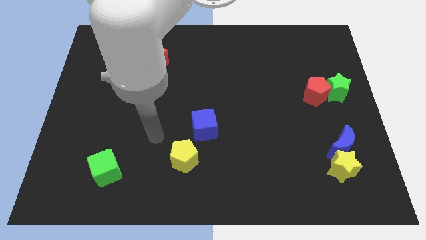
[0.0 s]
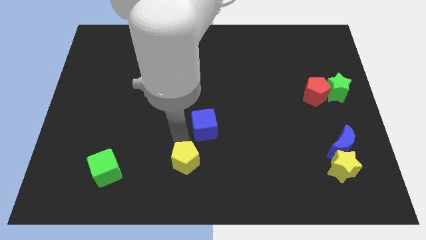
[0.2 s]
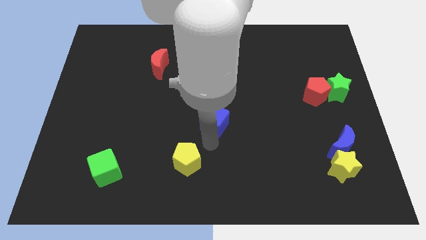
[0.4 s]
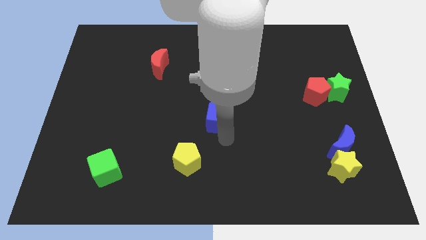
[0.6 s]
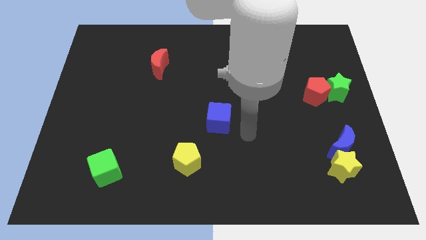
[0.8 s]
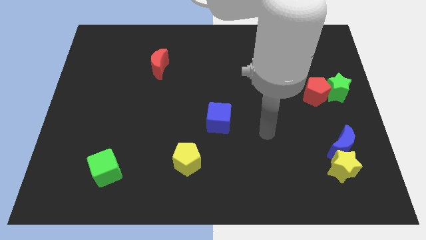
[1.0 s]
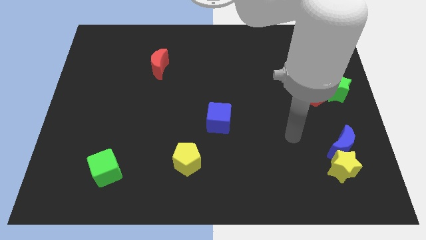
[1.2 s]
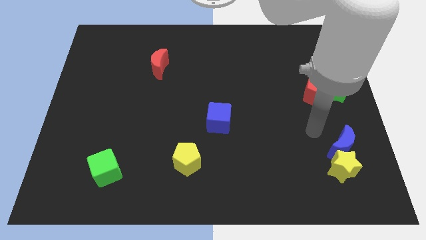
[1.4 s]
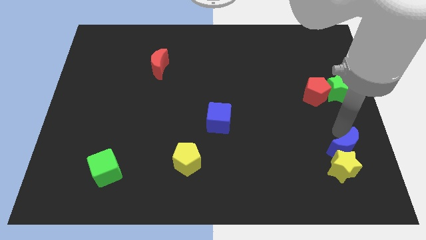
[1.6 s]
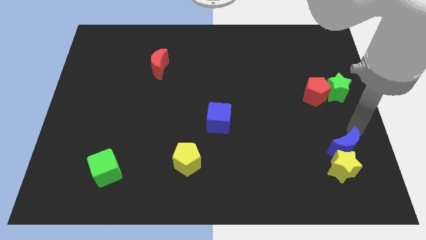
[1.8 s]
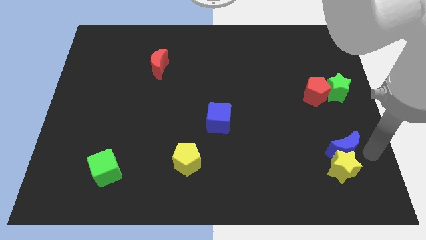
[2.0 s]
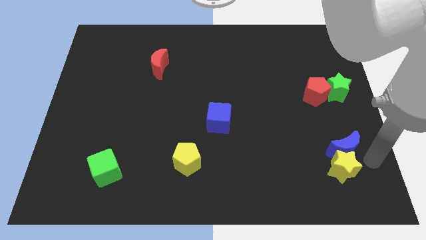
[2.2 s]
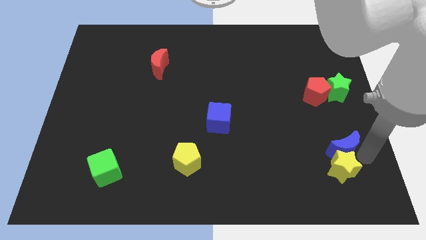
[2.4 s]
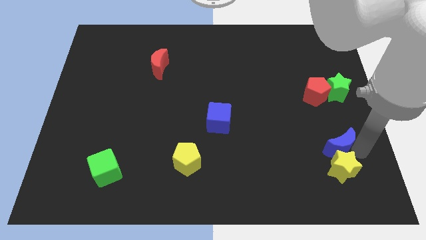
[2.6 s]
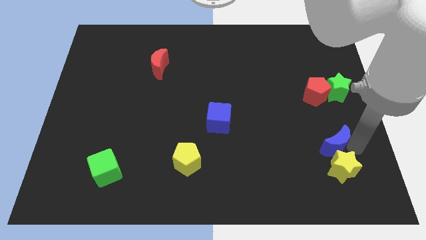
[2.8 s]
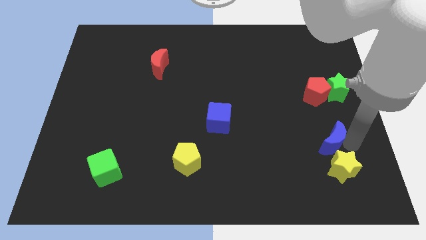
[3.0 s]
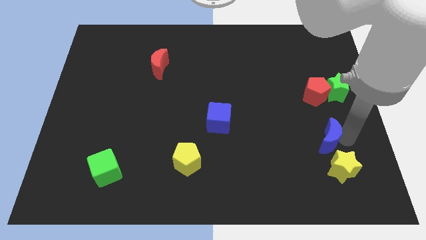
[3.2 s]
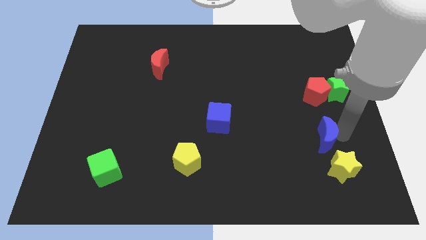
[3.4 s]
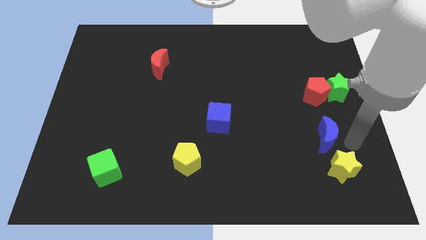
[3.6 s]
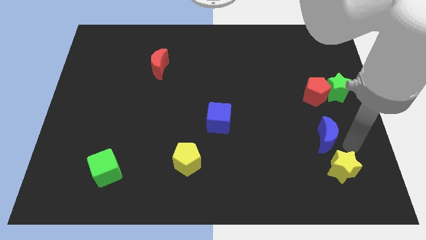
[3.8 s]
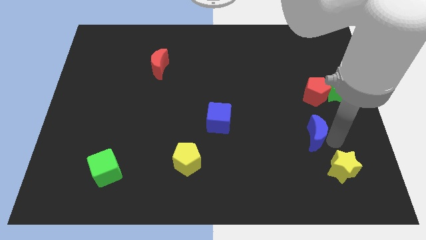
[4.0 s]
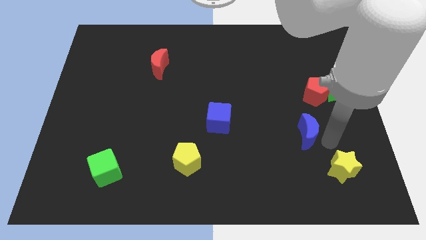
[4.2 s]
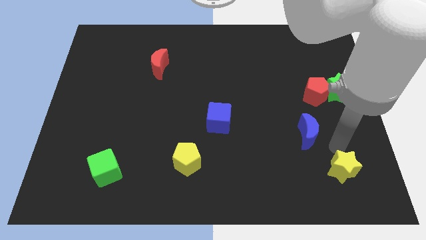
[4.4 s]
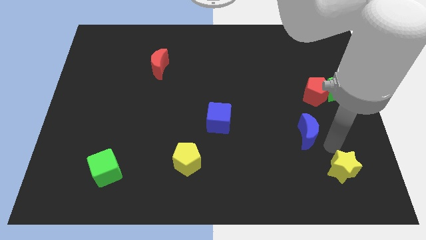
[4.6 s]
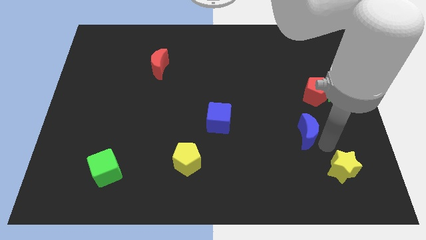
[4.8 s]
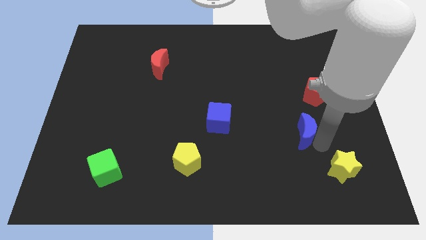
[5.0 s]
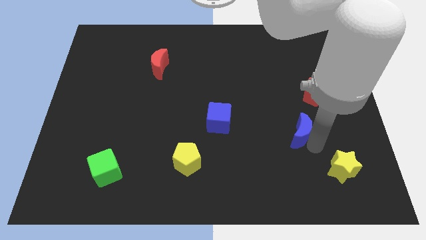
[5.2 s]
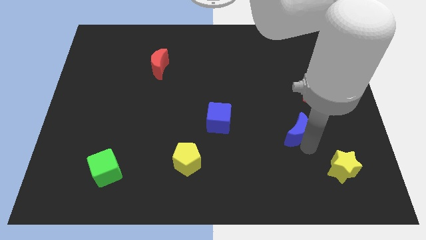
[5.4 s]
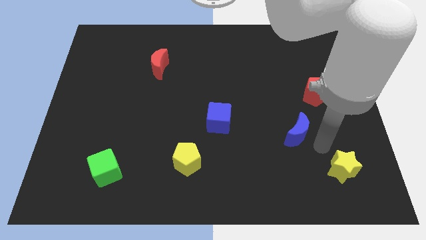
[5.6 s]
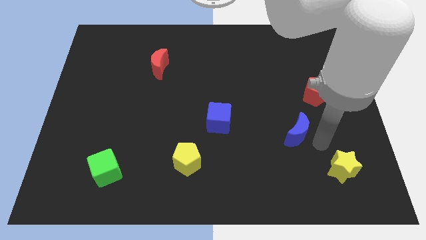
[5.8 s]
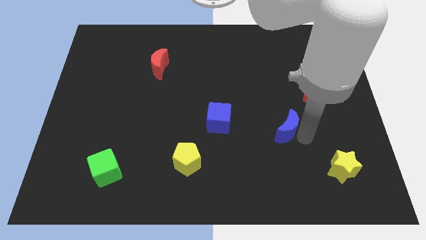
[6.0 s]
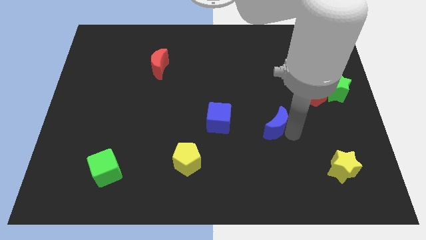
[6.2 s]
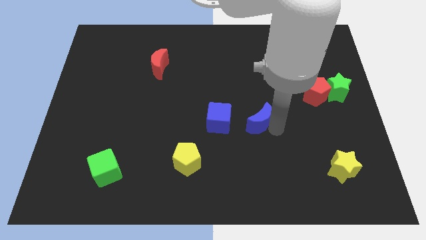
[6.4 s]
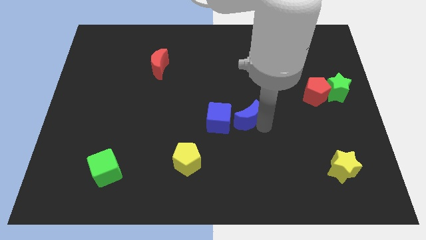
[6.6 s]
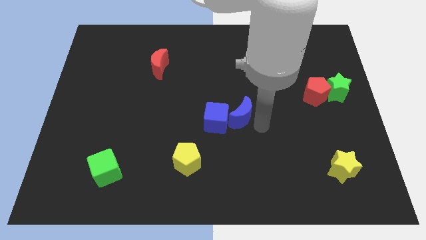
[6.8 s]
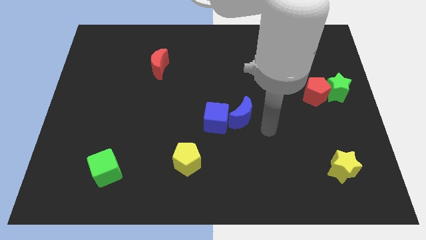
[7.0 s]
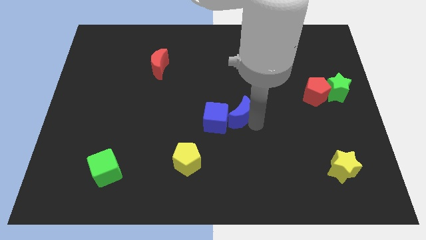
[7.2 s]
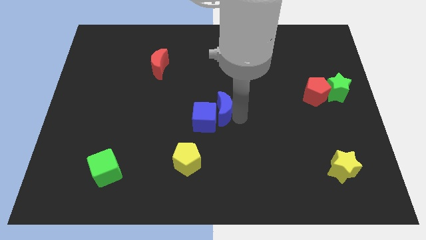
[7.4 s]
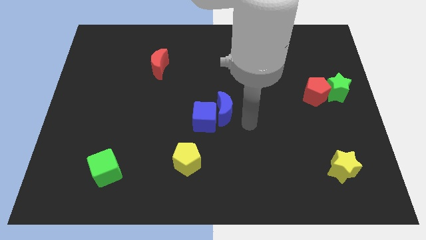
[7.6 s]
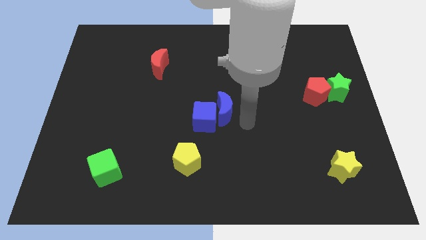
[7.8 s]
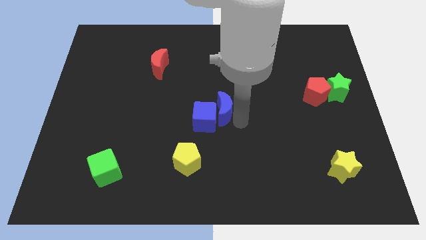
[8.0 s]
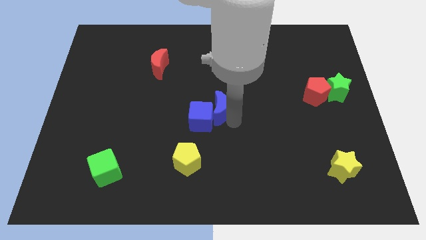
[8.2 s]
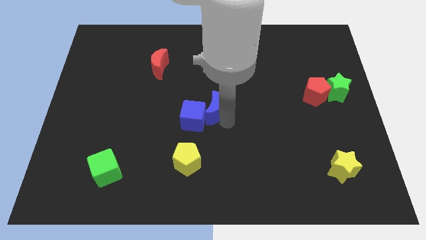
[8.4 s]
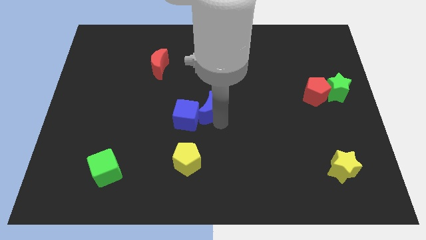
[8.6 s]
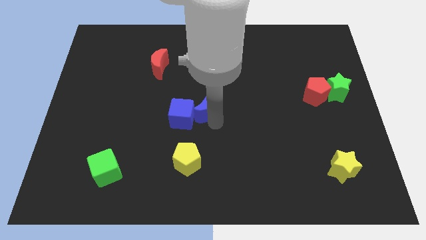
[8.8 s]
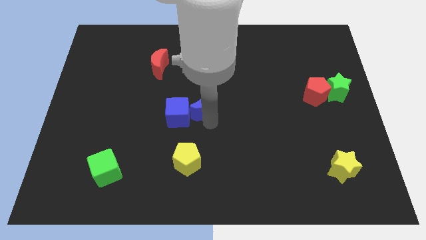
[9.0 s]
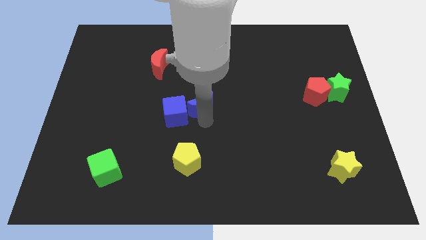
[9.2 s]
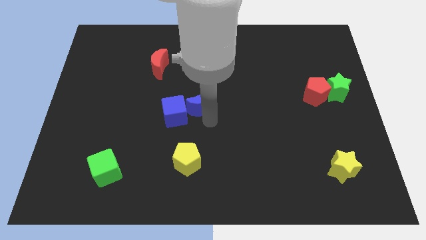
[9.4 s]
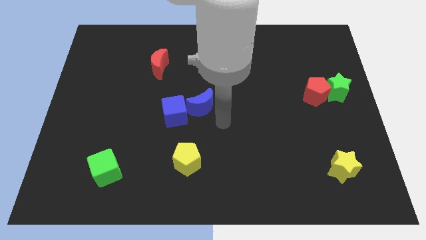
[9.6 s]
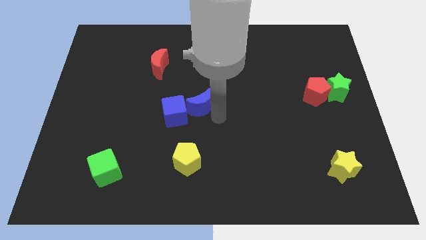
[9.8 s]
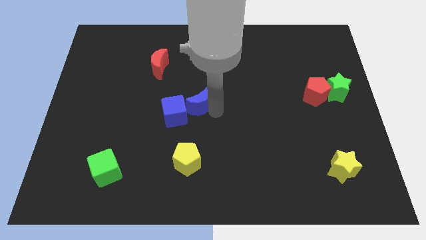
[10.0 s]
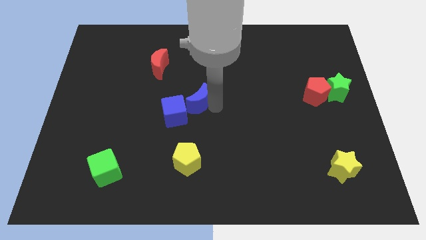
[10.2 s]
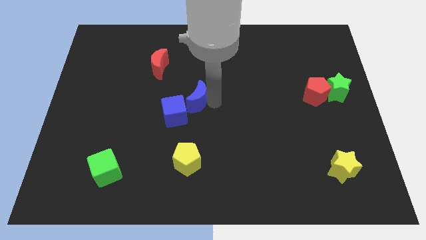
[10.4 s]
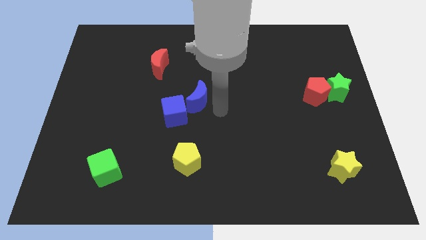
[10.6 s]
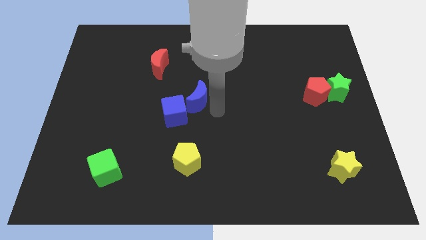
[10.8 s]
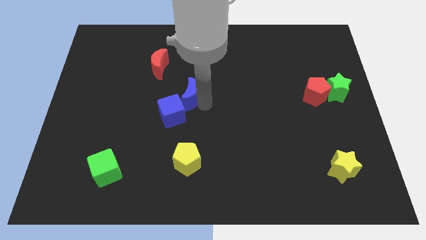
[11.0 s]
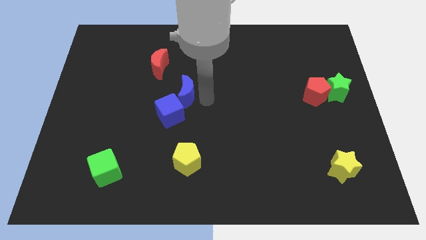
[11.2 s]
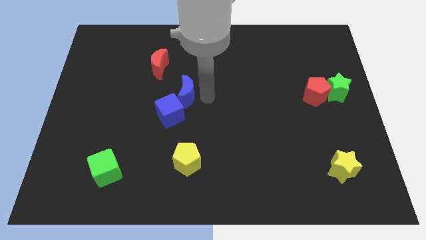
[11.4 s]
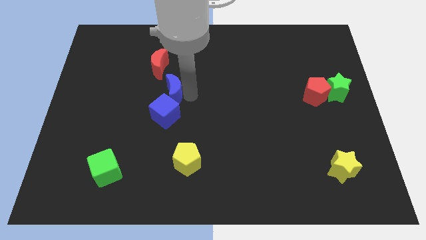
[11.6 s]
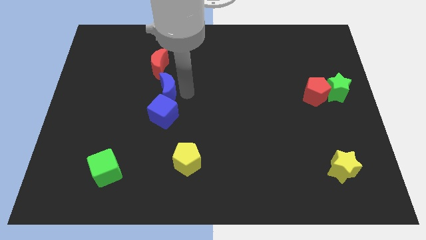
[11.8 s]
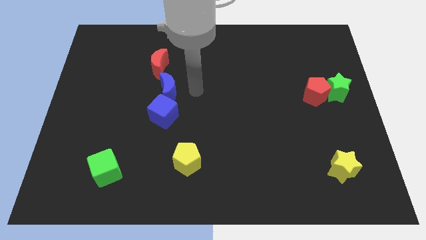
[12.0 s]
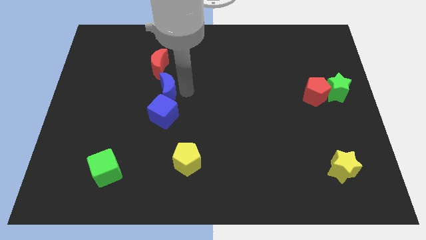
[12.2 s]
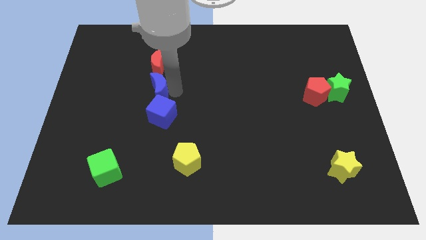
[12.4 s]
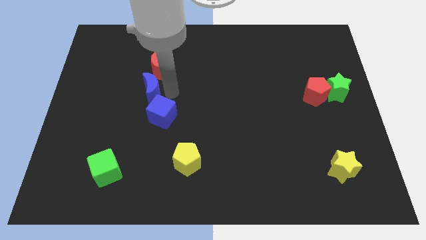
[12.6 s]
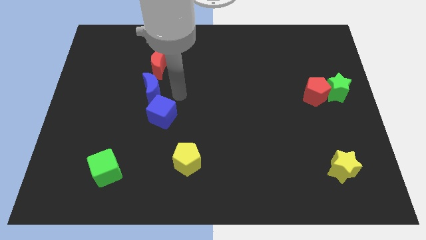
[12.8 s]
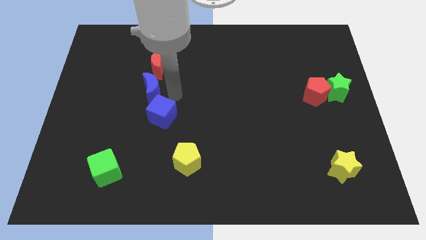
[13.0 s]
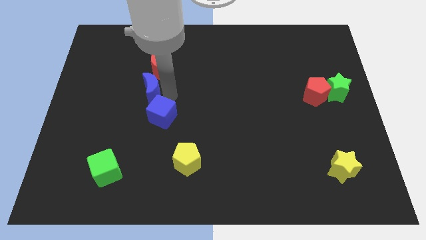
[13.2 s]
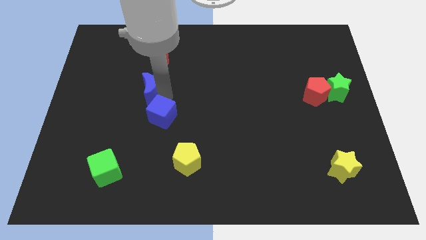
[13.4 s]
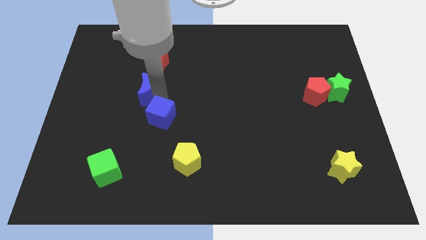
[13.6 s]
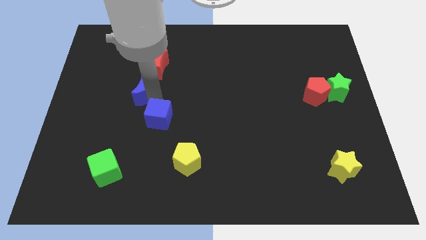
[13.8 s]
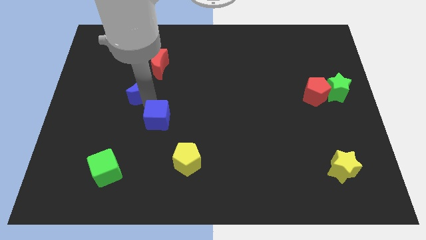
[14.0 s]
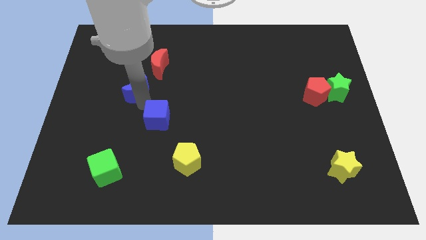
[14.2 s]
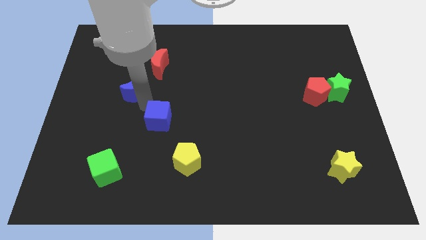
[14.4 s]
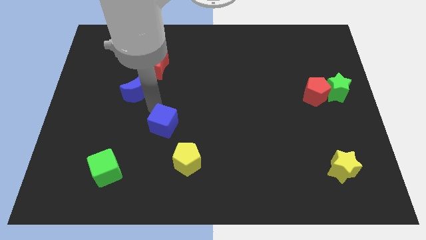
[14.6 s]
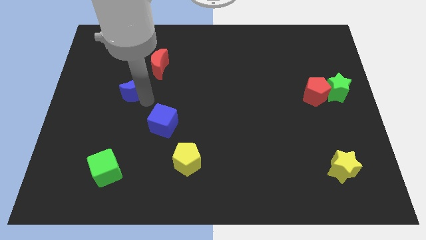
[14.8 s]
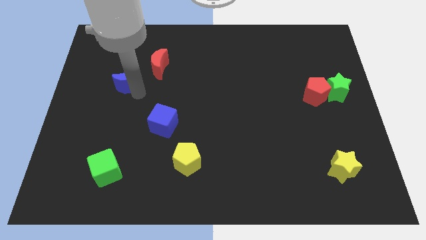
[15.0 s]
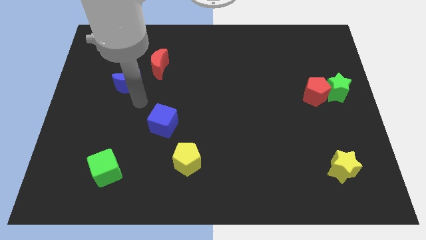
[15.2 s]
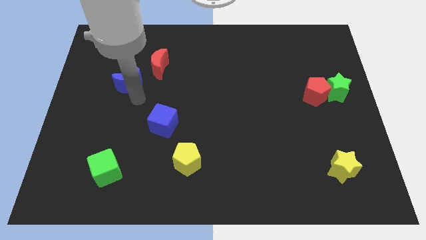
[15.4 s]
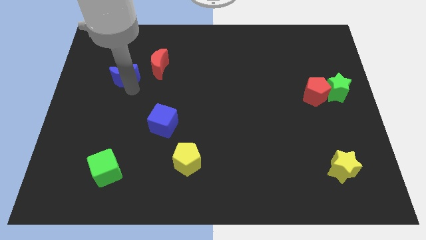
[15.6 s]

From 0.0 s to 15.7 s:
move the blue moon to the left side of the red moon
